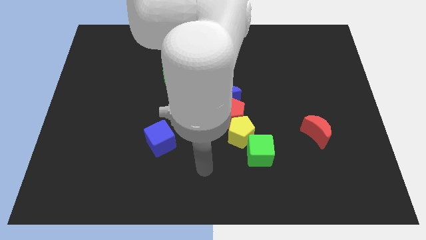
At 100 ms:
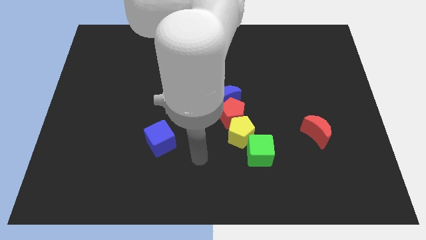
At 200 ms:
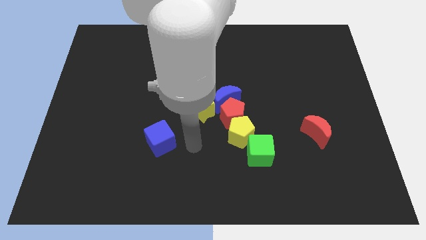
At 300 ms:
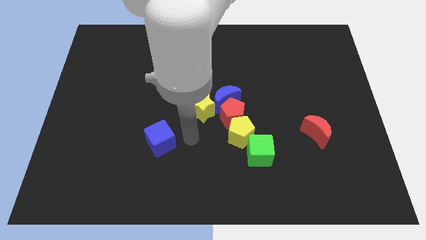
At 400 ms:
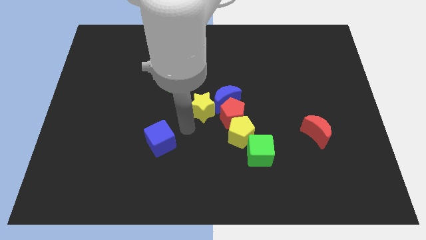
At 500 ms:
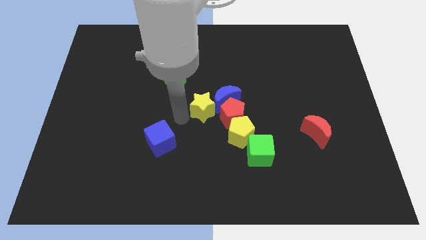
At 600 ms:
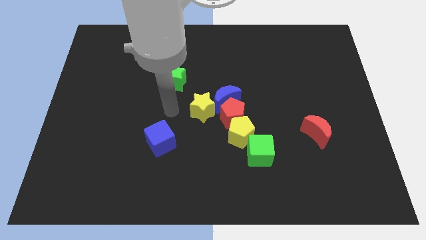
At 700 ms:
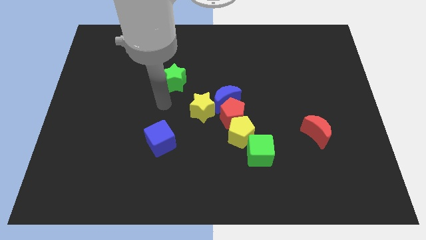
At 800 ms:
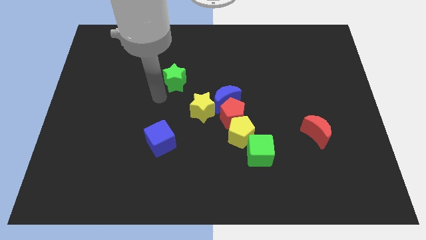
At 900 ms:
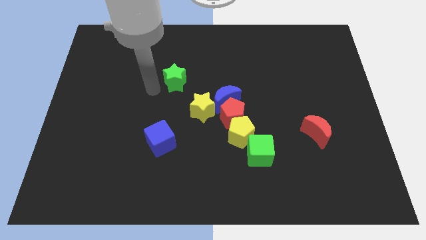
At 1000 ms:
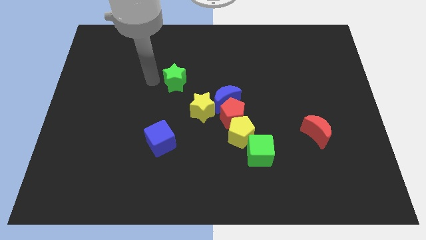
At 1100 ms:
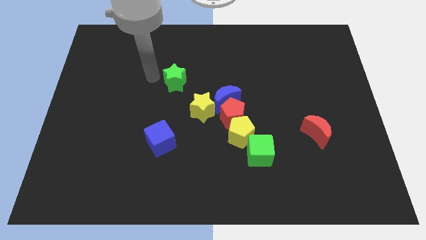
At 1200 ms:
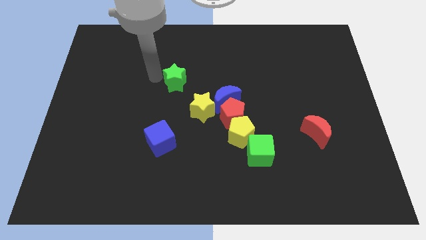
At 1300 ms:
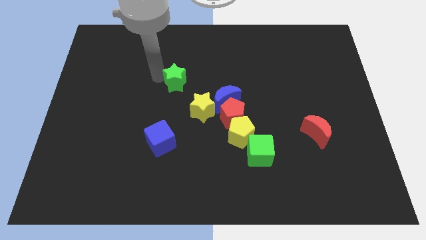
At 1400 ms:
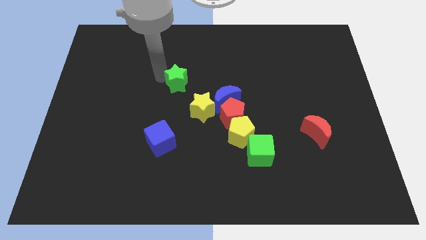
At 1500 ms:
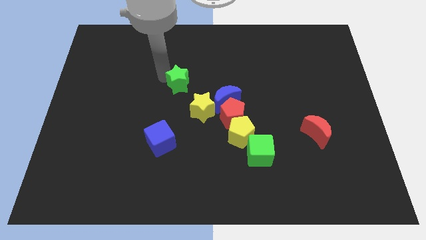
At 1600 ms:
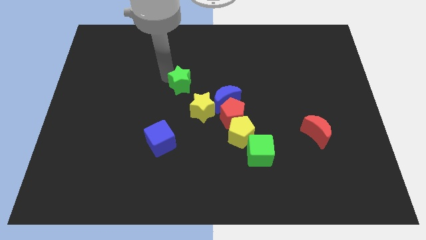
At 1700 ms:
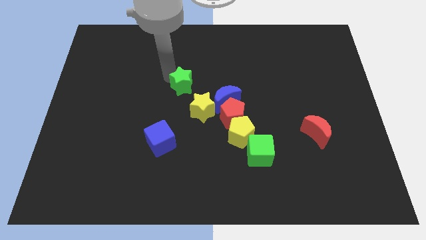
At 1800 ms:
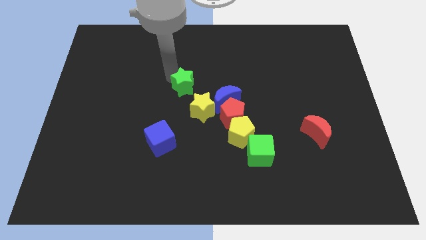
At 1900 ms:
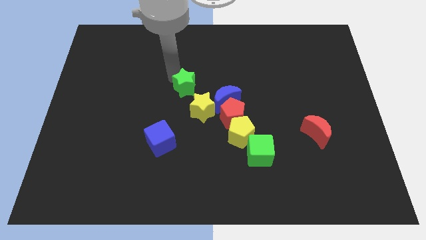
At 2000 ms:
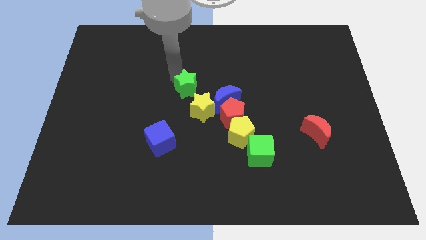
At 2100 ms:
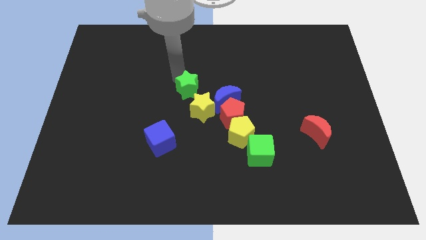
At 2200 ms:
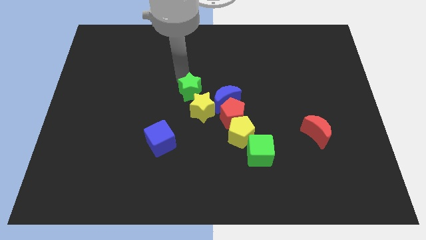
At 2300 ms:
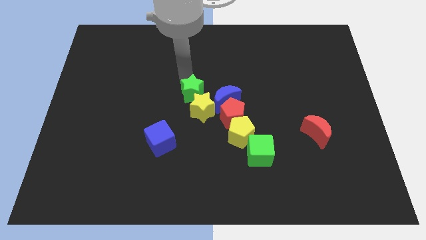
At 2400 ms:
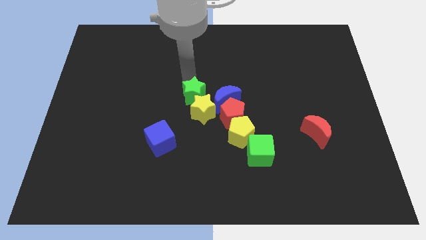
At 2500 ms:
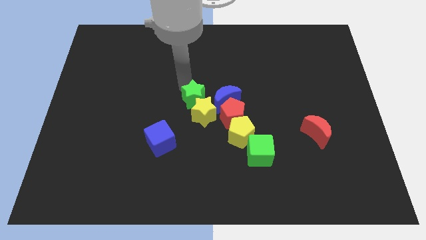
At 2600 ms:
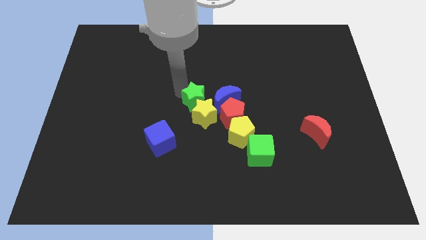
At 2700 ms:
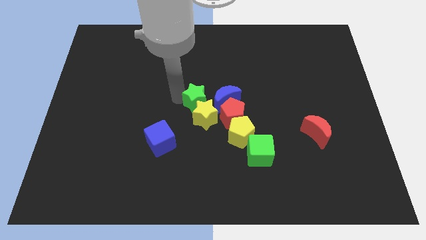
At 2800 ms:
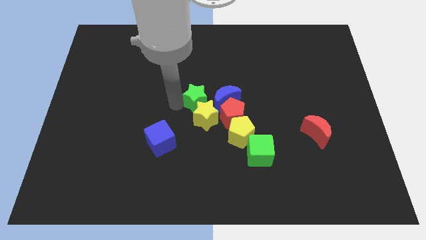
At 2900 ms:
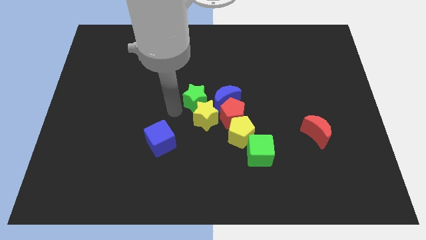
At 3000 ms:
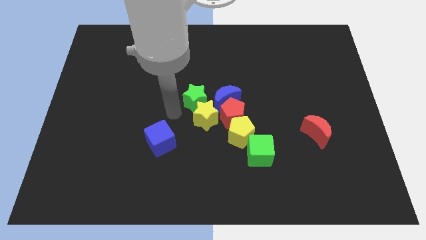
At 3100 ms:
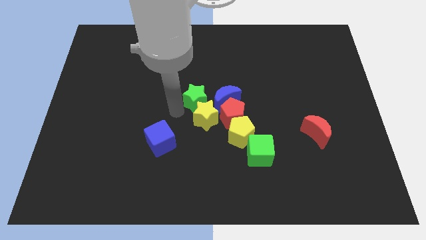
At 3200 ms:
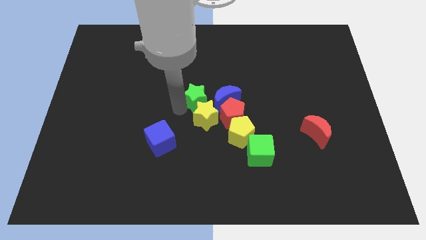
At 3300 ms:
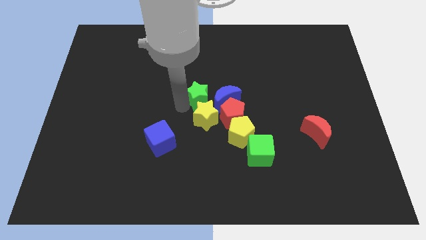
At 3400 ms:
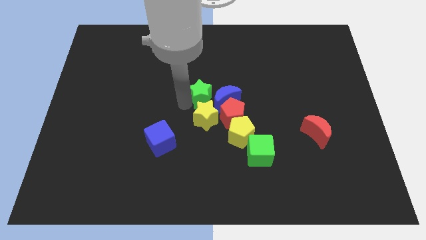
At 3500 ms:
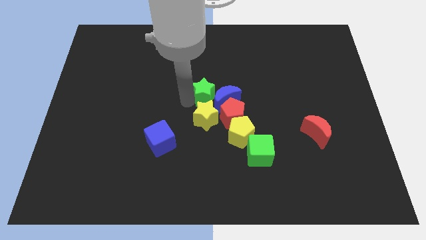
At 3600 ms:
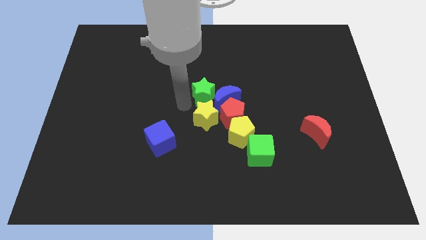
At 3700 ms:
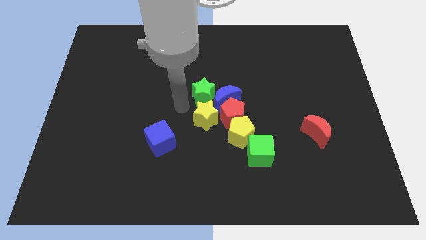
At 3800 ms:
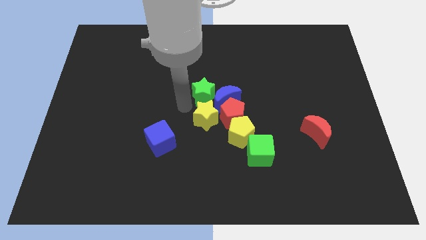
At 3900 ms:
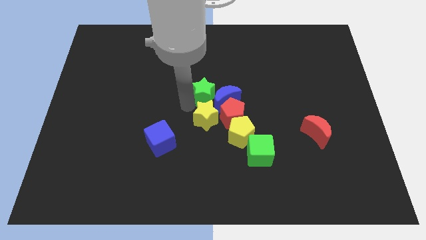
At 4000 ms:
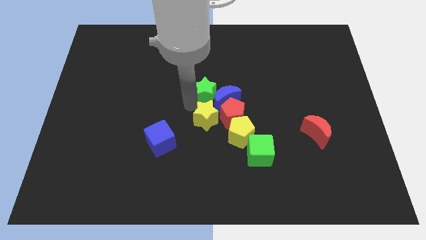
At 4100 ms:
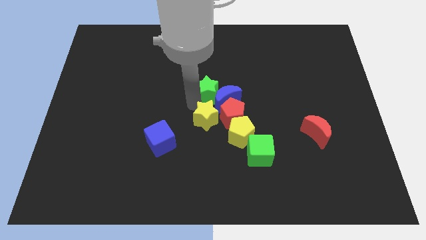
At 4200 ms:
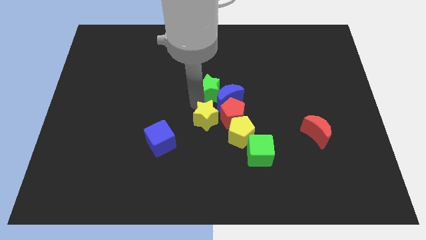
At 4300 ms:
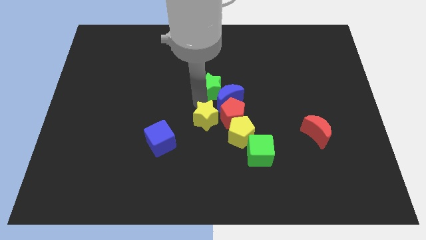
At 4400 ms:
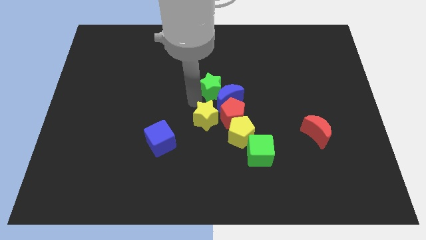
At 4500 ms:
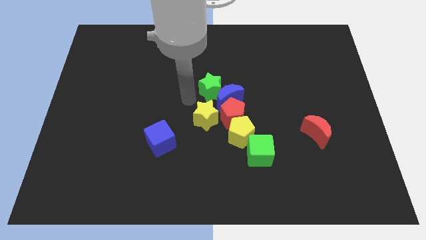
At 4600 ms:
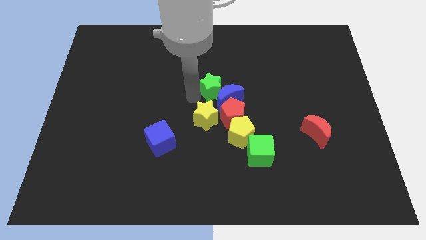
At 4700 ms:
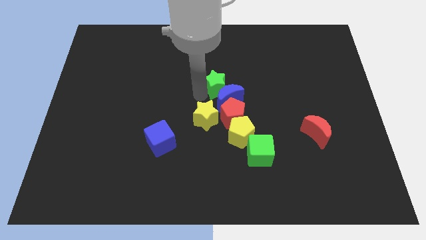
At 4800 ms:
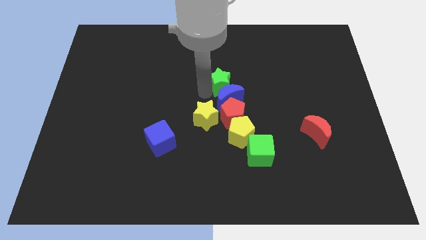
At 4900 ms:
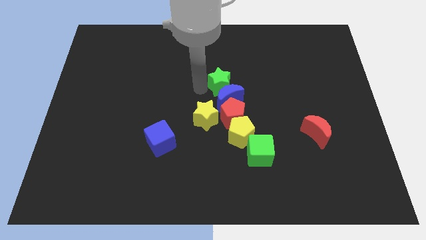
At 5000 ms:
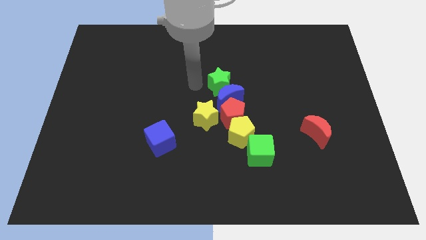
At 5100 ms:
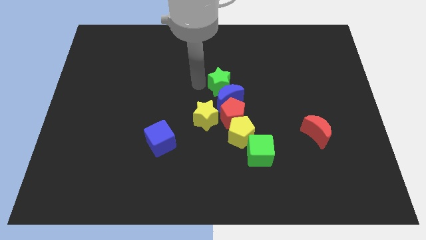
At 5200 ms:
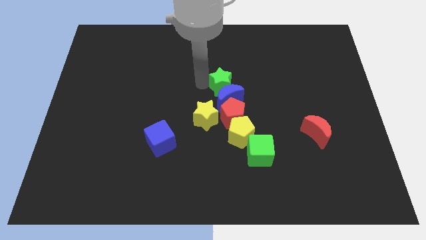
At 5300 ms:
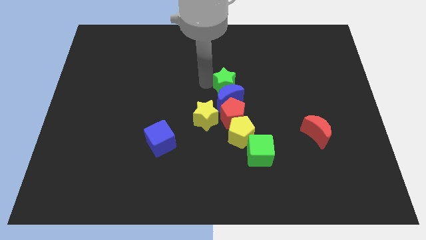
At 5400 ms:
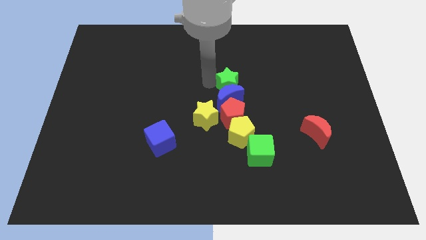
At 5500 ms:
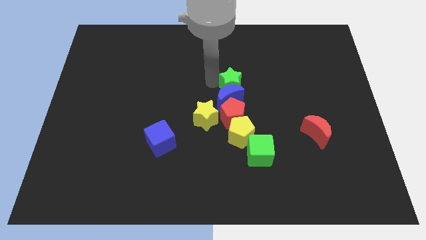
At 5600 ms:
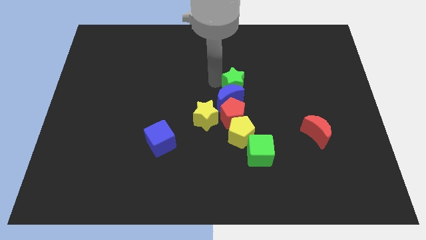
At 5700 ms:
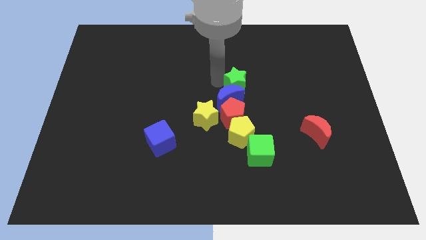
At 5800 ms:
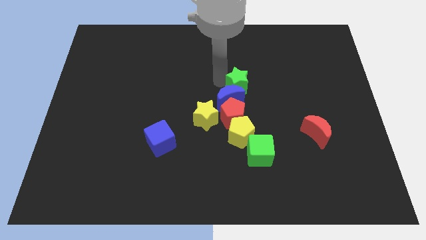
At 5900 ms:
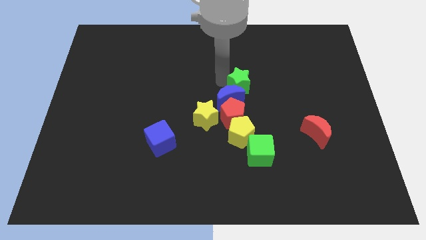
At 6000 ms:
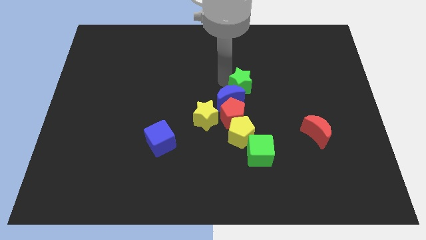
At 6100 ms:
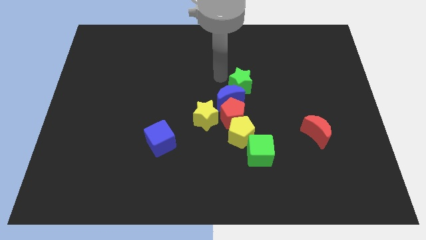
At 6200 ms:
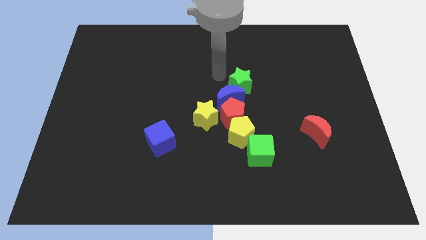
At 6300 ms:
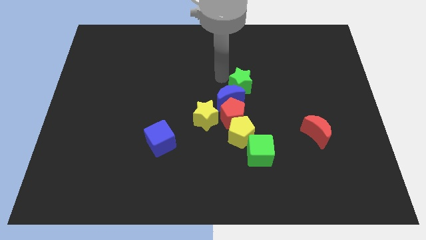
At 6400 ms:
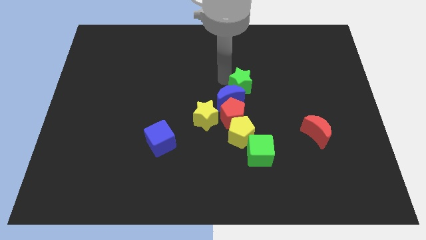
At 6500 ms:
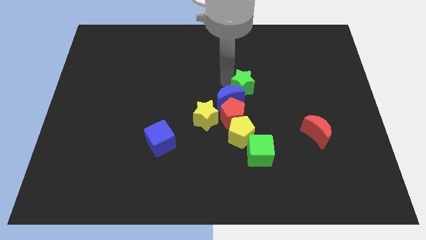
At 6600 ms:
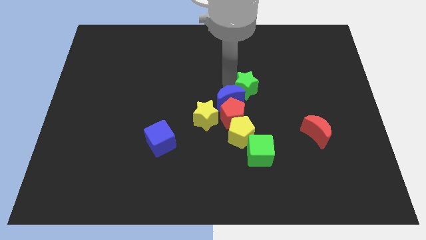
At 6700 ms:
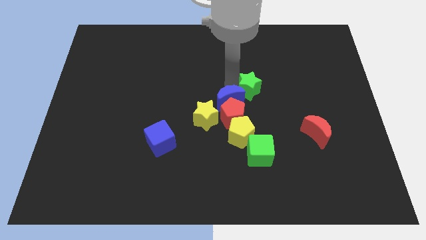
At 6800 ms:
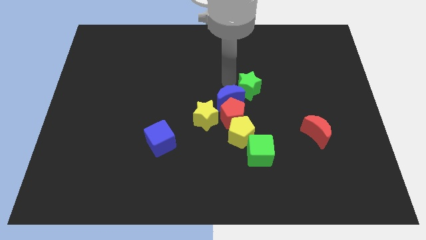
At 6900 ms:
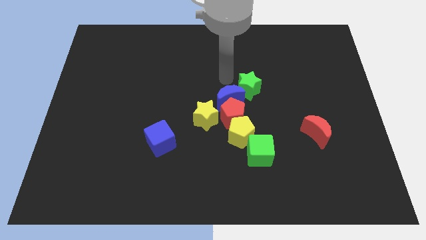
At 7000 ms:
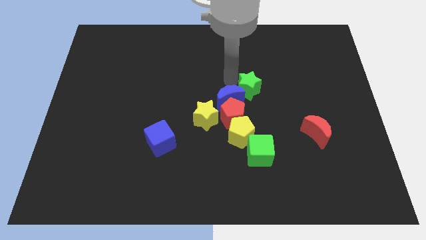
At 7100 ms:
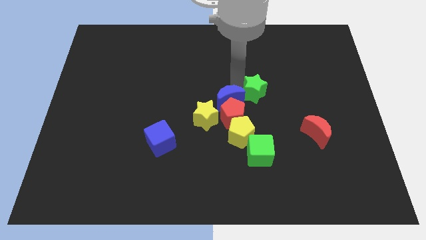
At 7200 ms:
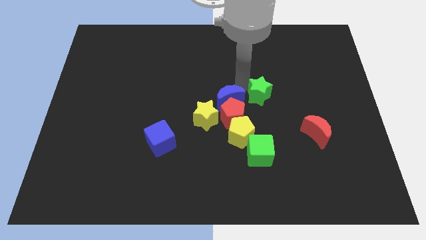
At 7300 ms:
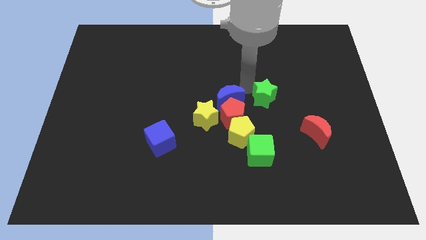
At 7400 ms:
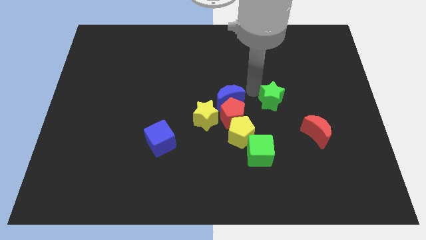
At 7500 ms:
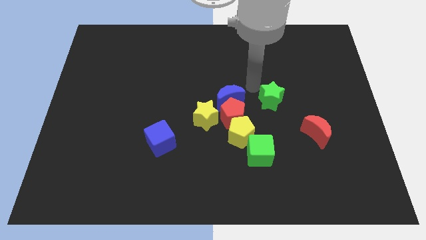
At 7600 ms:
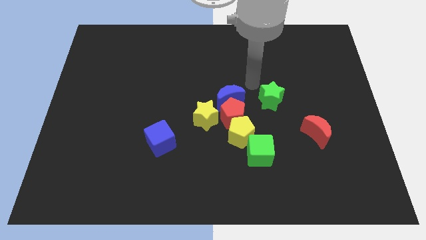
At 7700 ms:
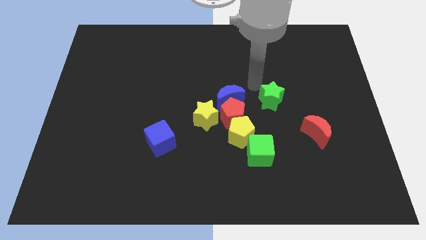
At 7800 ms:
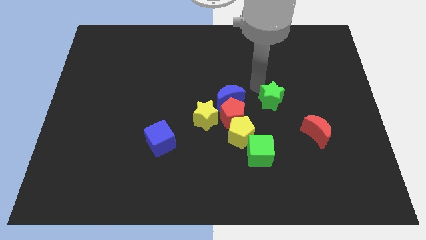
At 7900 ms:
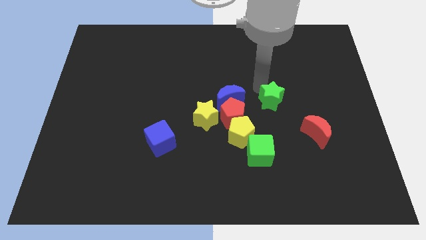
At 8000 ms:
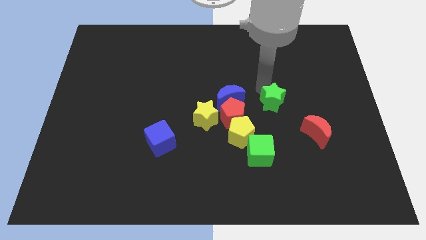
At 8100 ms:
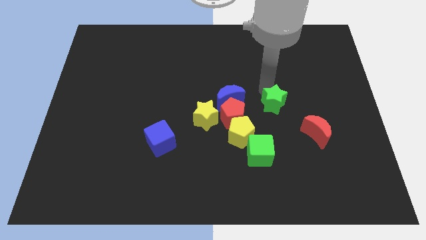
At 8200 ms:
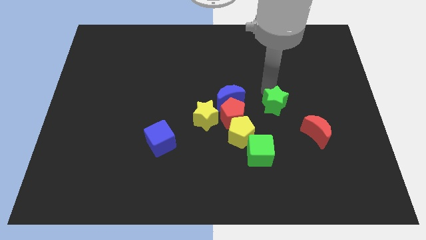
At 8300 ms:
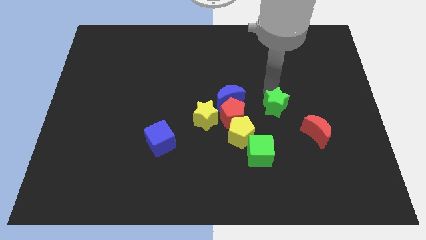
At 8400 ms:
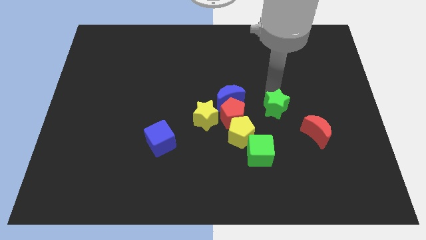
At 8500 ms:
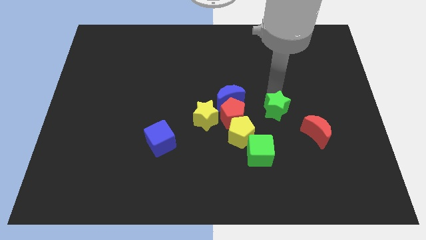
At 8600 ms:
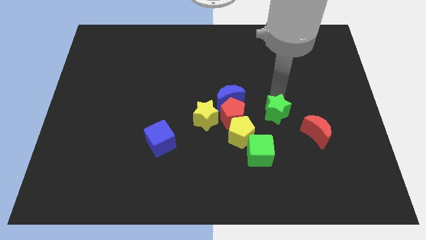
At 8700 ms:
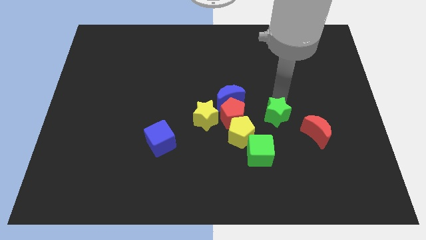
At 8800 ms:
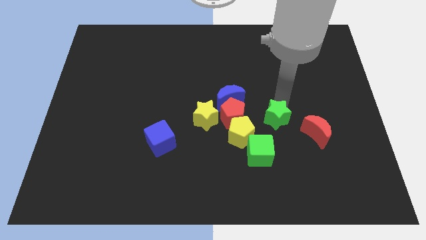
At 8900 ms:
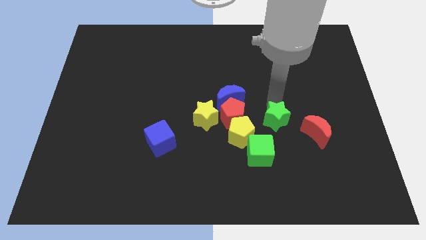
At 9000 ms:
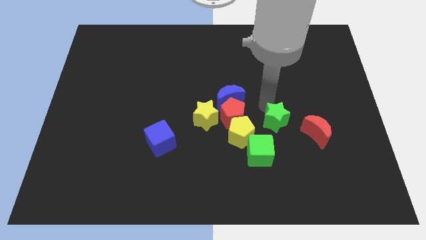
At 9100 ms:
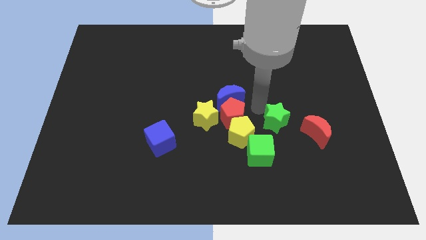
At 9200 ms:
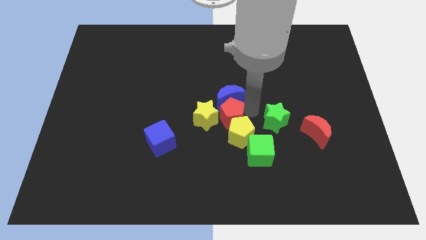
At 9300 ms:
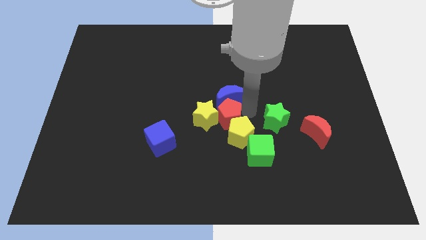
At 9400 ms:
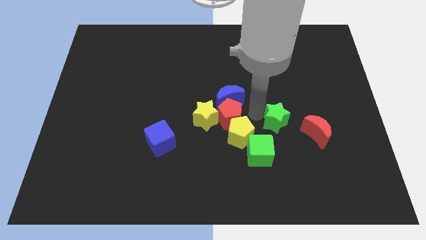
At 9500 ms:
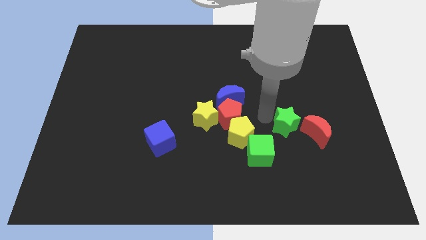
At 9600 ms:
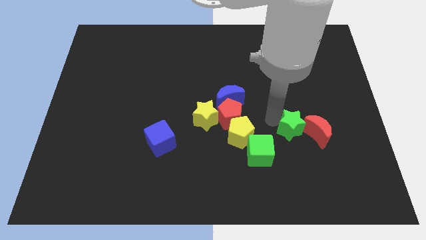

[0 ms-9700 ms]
push the green star to the red moon
